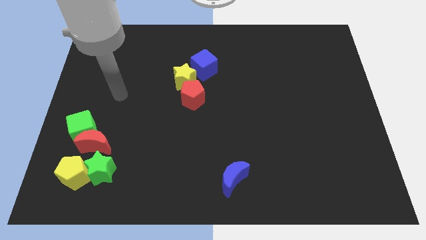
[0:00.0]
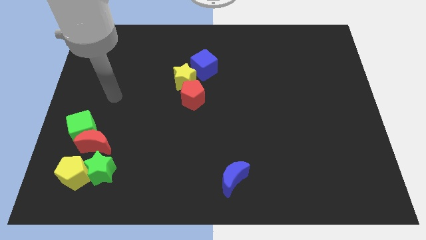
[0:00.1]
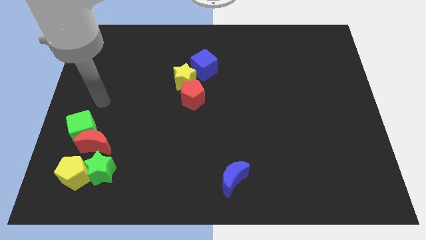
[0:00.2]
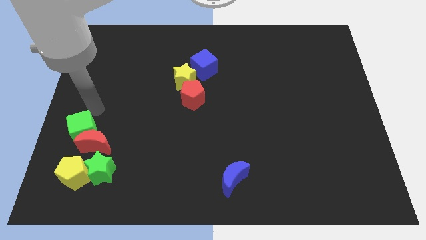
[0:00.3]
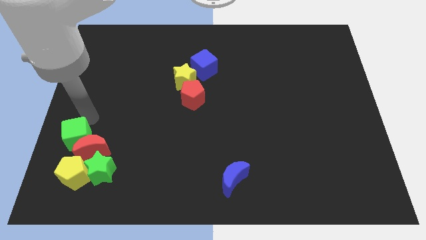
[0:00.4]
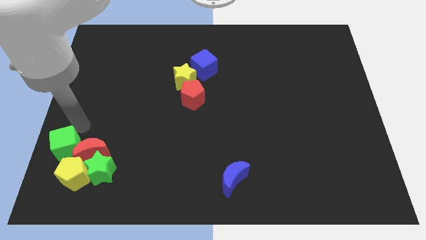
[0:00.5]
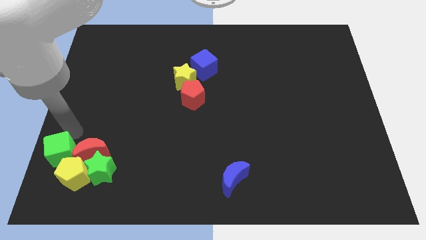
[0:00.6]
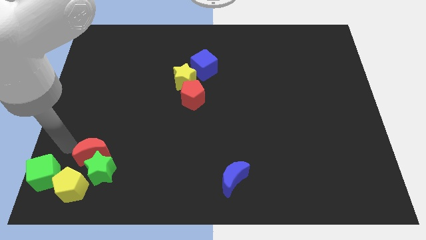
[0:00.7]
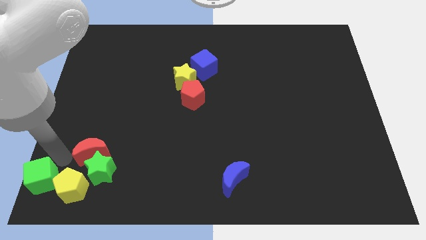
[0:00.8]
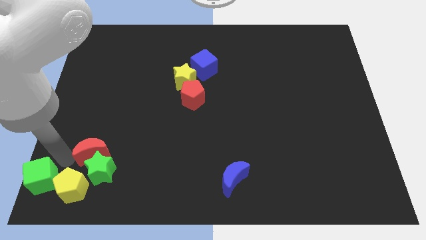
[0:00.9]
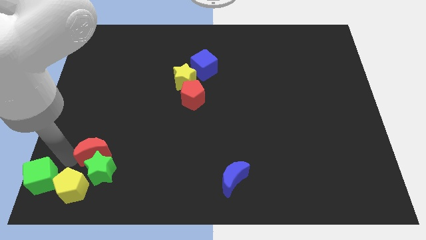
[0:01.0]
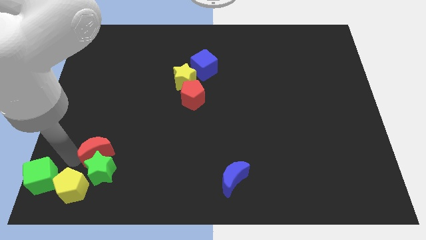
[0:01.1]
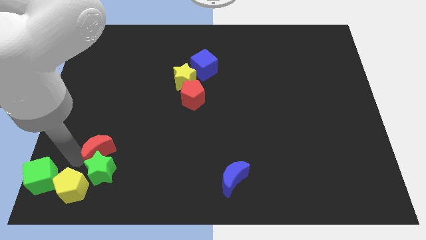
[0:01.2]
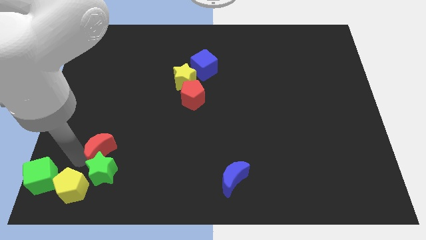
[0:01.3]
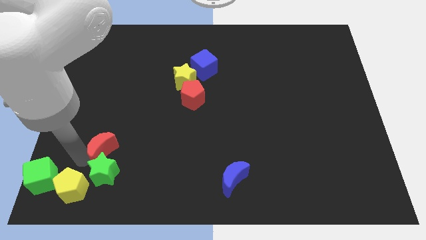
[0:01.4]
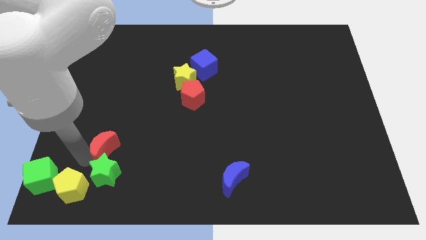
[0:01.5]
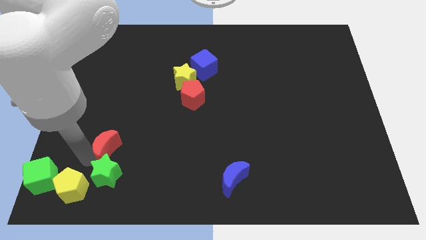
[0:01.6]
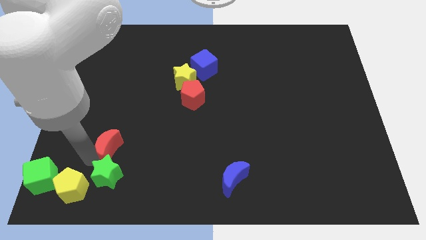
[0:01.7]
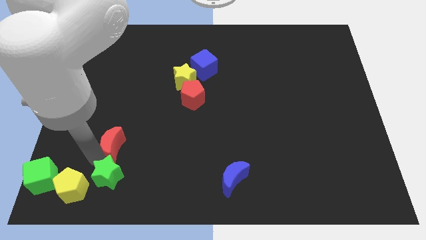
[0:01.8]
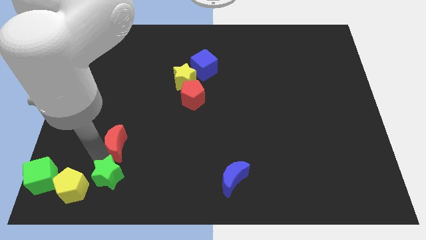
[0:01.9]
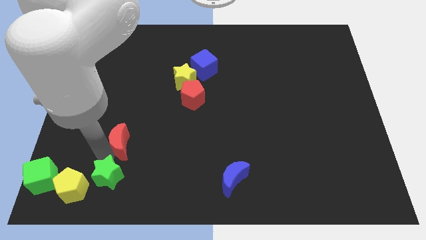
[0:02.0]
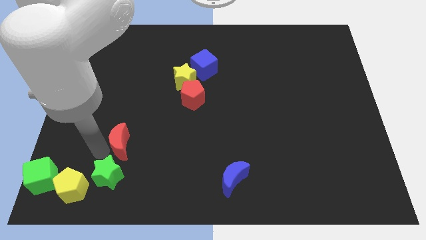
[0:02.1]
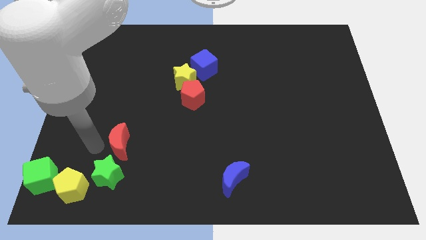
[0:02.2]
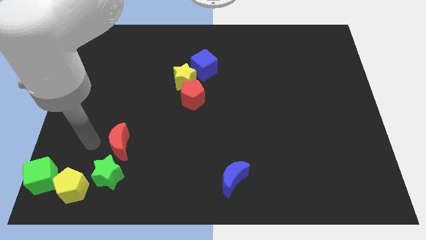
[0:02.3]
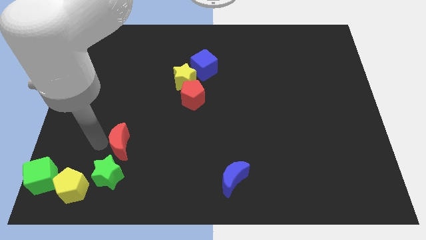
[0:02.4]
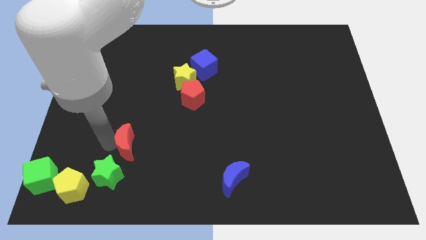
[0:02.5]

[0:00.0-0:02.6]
move the red moon to the right a little

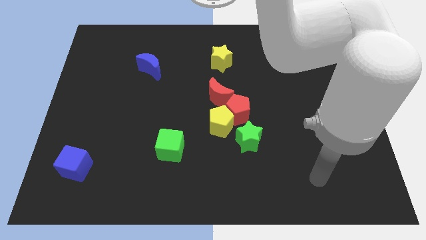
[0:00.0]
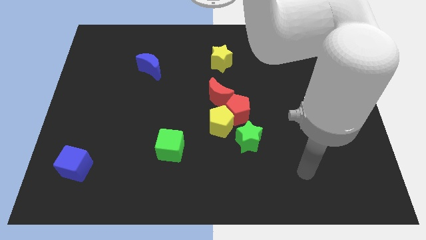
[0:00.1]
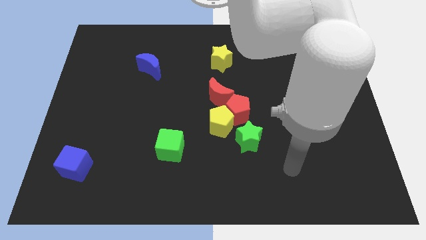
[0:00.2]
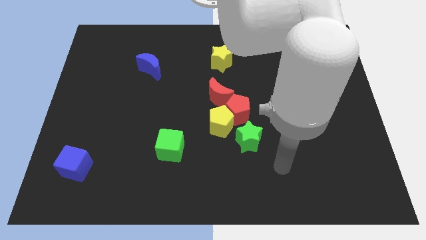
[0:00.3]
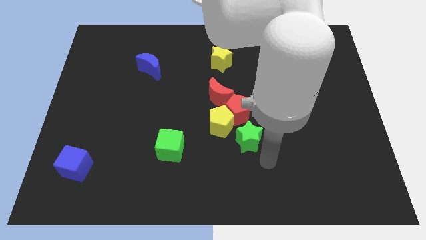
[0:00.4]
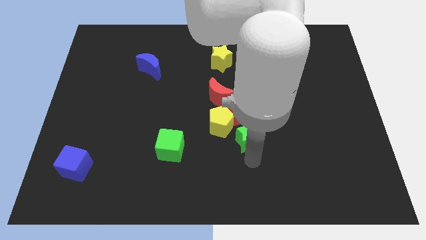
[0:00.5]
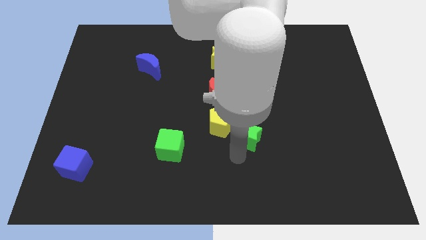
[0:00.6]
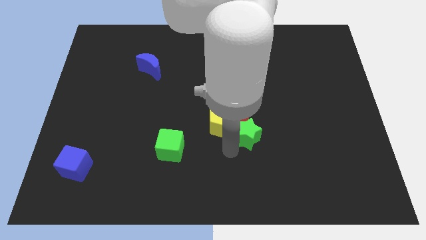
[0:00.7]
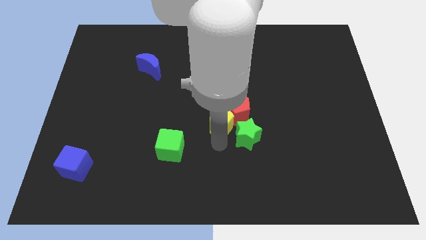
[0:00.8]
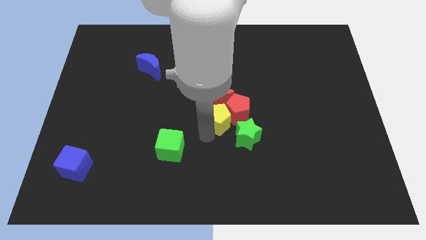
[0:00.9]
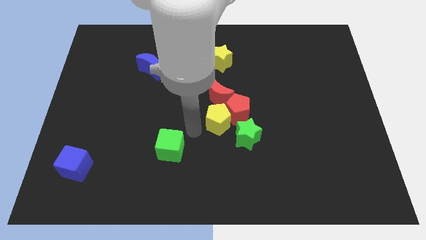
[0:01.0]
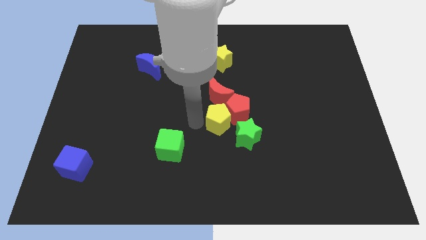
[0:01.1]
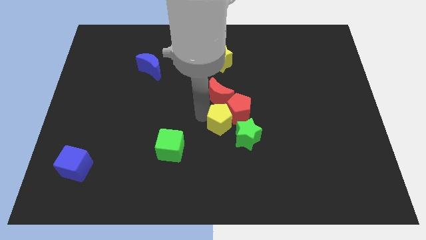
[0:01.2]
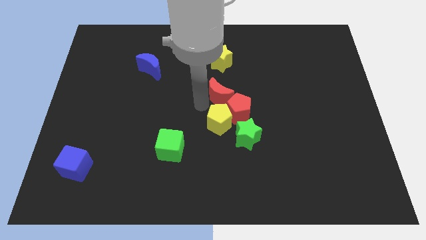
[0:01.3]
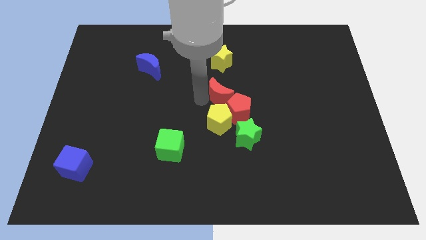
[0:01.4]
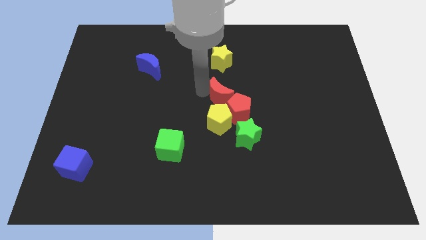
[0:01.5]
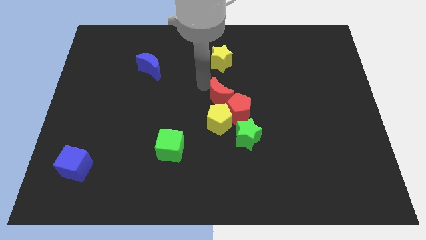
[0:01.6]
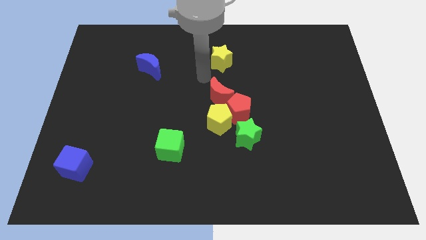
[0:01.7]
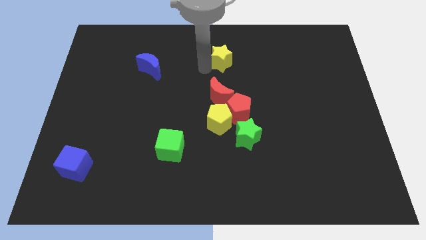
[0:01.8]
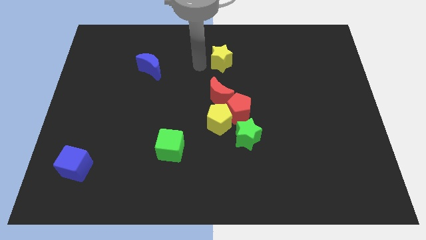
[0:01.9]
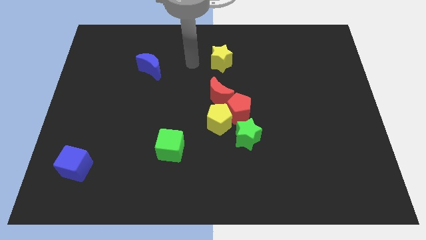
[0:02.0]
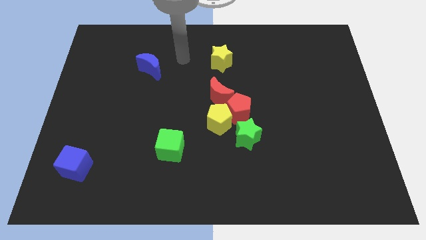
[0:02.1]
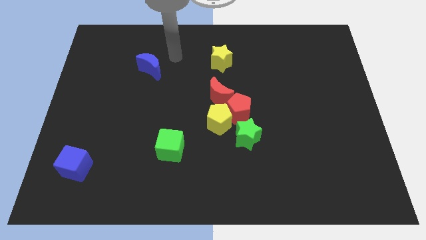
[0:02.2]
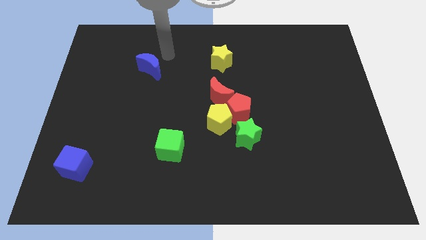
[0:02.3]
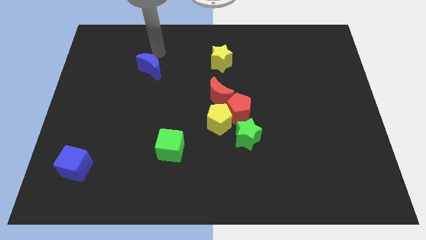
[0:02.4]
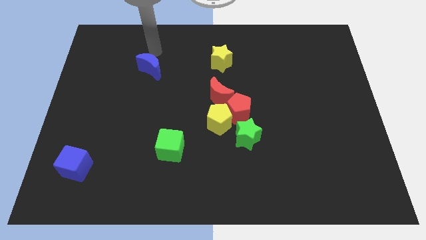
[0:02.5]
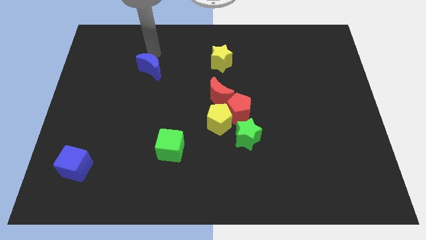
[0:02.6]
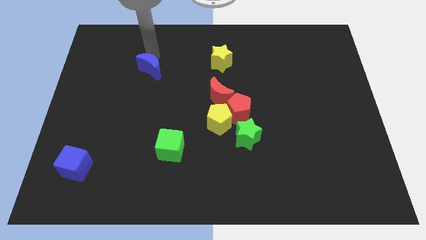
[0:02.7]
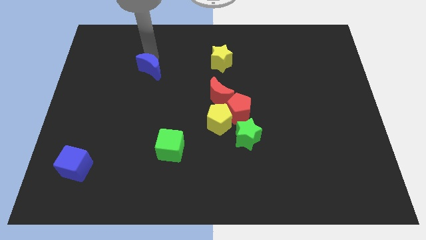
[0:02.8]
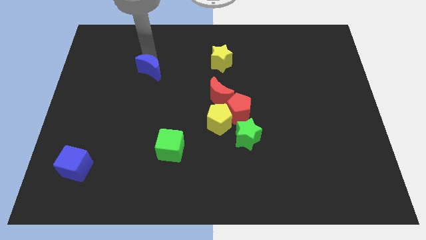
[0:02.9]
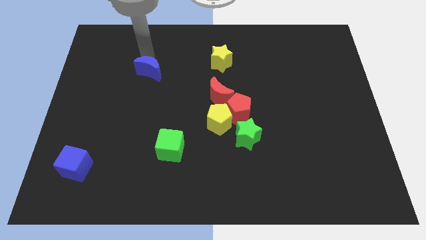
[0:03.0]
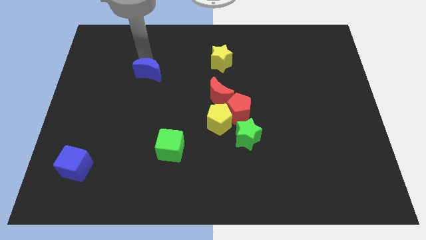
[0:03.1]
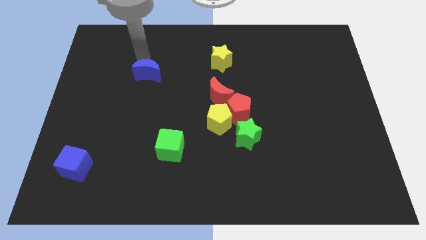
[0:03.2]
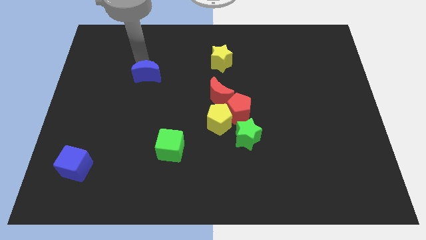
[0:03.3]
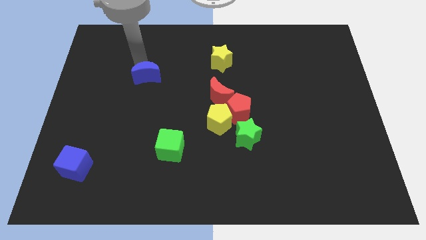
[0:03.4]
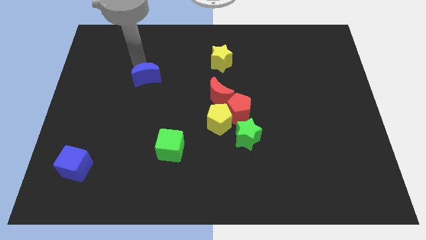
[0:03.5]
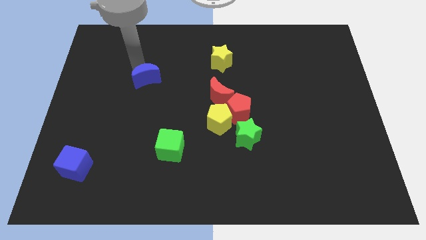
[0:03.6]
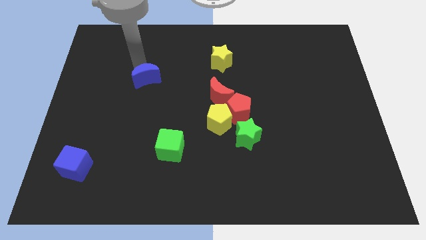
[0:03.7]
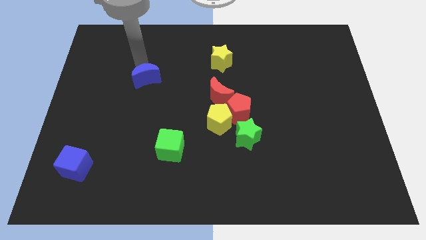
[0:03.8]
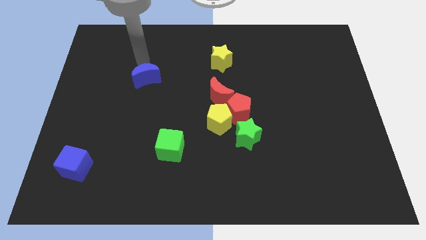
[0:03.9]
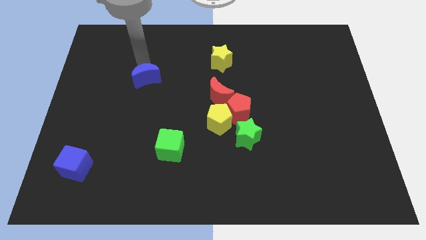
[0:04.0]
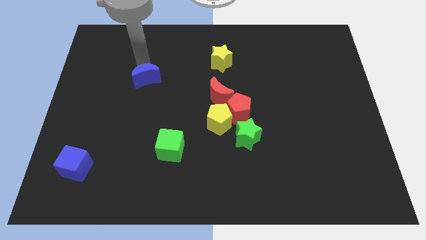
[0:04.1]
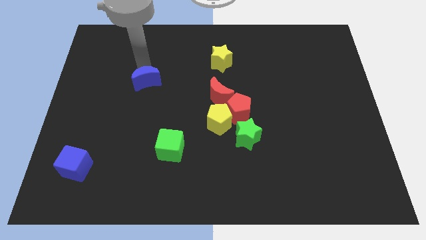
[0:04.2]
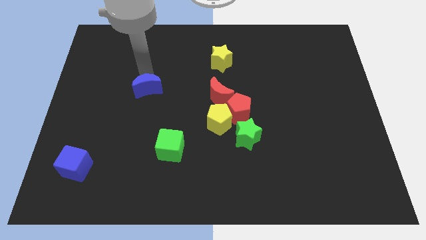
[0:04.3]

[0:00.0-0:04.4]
slightly move the blue moon down

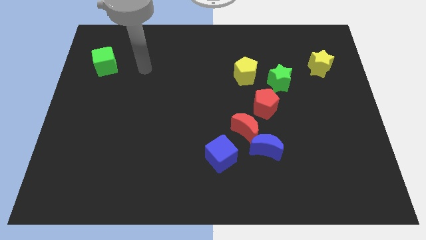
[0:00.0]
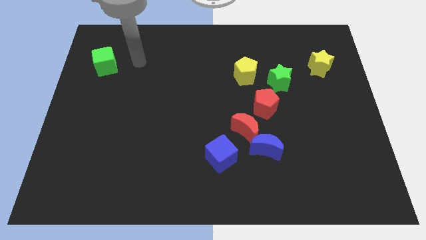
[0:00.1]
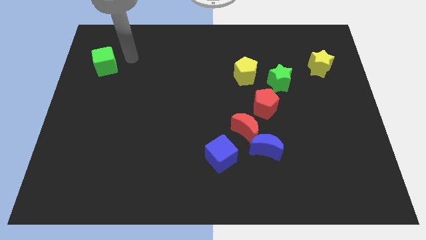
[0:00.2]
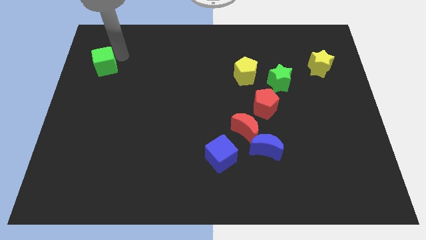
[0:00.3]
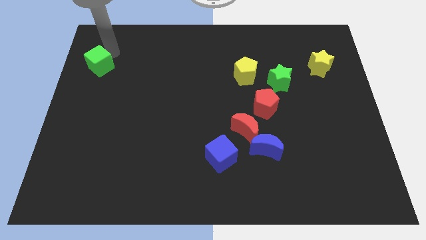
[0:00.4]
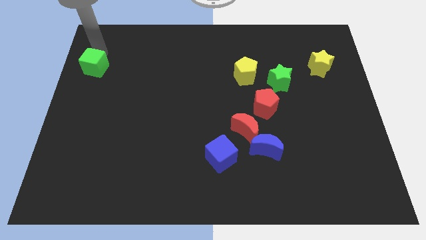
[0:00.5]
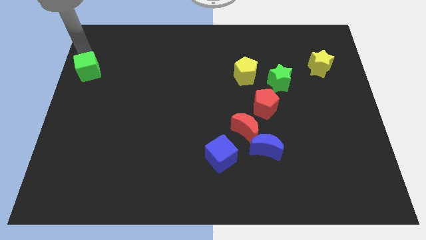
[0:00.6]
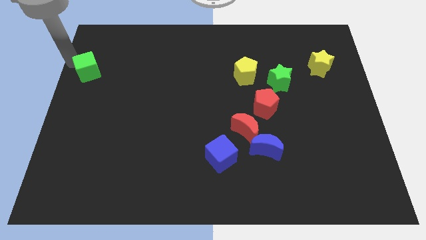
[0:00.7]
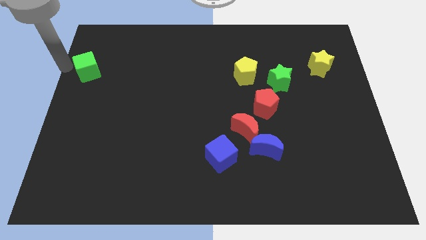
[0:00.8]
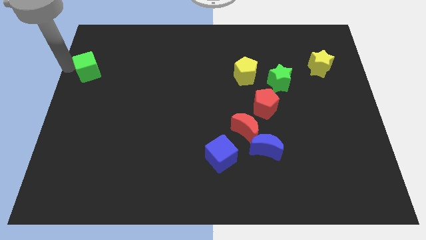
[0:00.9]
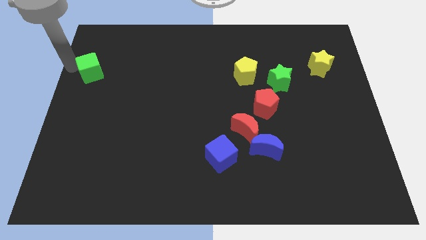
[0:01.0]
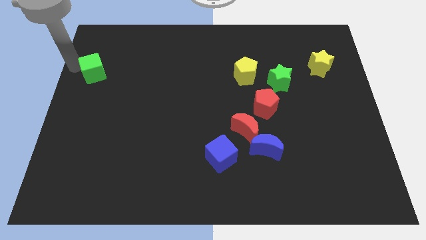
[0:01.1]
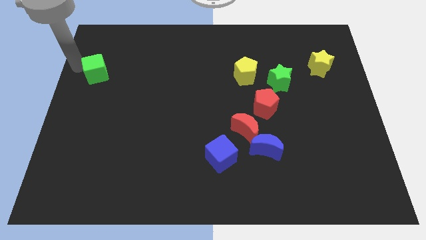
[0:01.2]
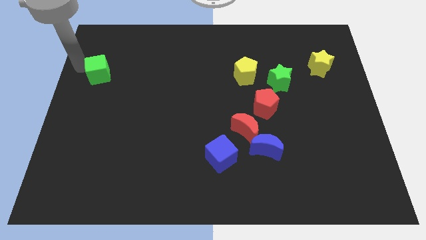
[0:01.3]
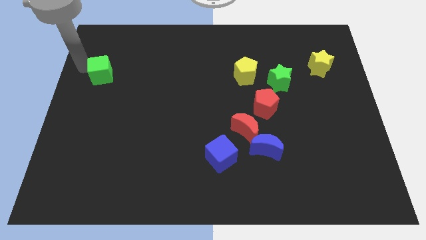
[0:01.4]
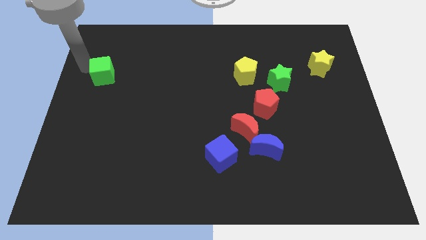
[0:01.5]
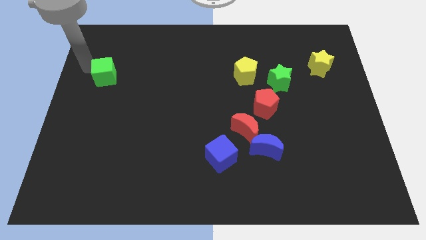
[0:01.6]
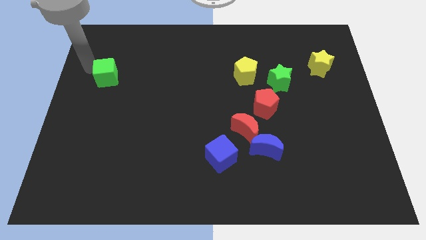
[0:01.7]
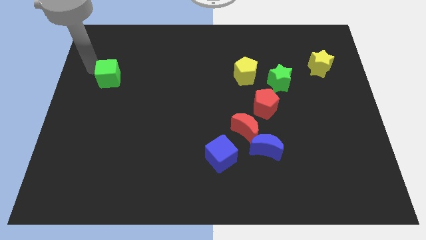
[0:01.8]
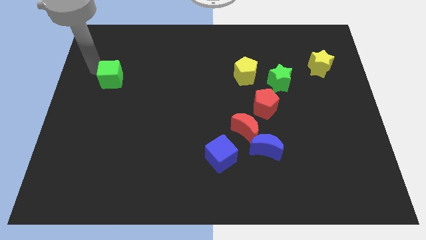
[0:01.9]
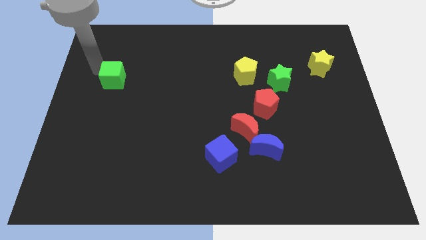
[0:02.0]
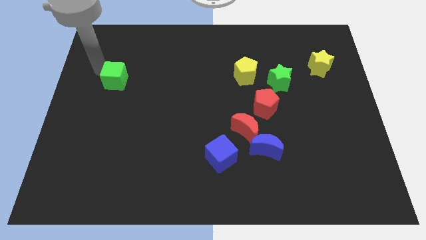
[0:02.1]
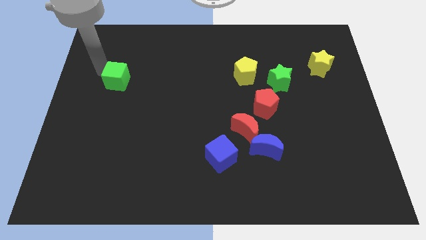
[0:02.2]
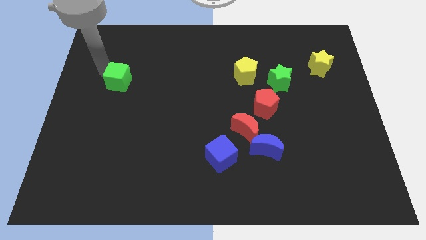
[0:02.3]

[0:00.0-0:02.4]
push the green cube downwards and to the right a little bit
